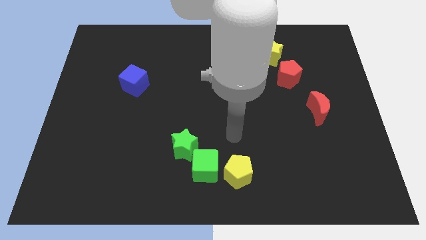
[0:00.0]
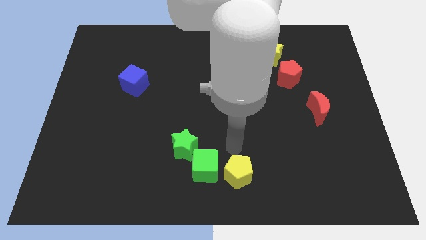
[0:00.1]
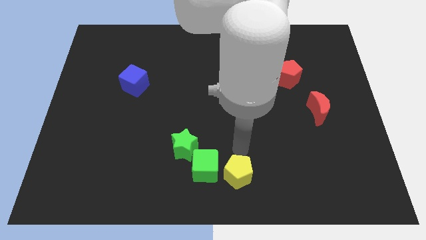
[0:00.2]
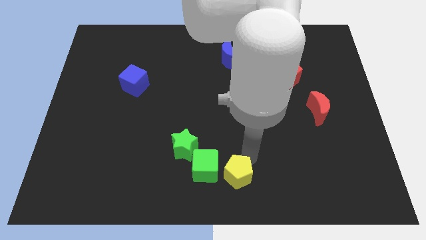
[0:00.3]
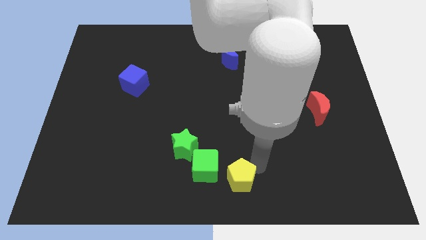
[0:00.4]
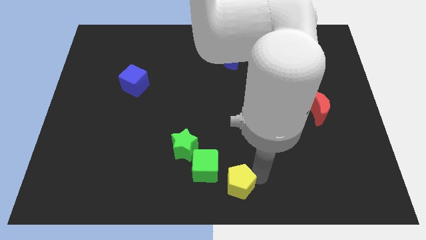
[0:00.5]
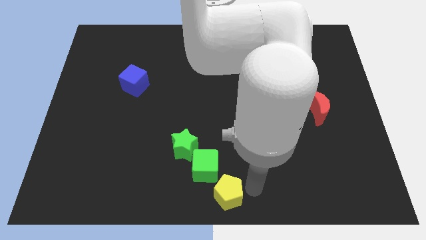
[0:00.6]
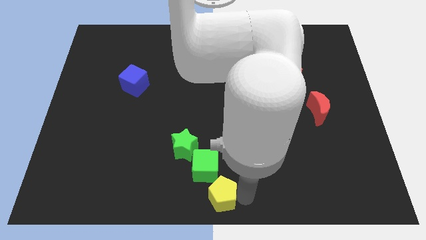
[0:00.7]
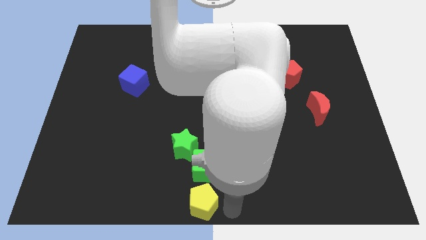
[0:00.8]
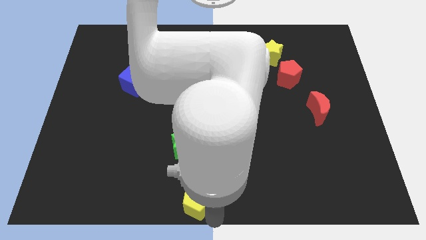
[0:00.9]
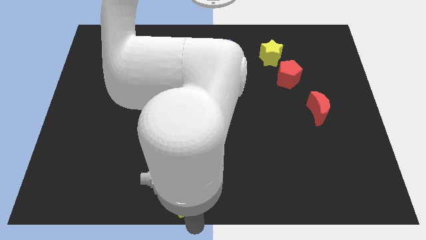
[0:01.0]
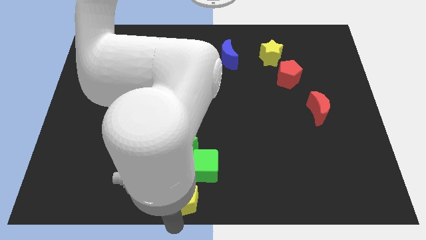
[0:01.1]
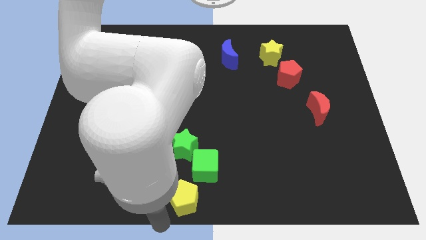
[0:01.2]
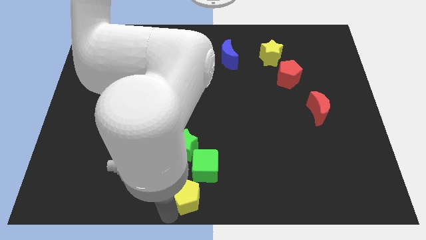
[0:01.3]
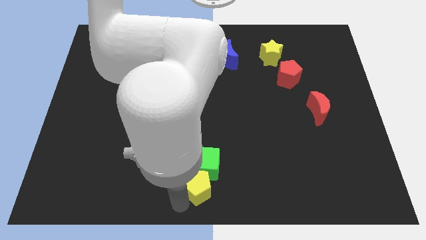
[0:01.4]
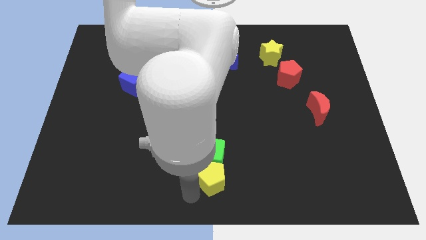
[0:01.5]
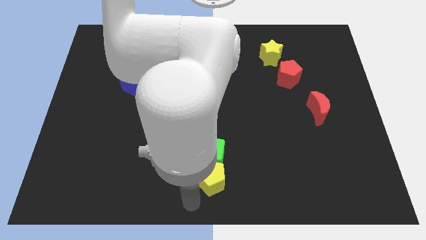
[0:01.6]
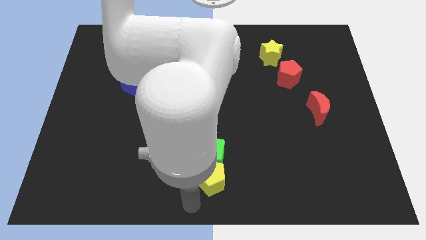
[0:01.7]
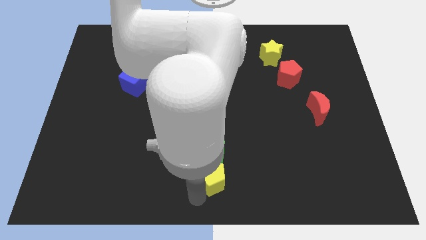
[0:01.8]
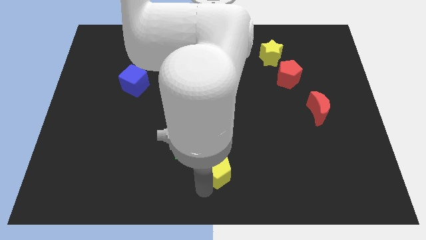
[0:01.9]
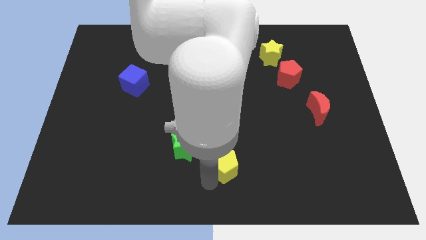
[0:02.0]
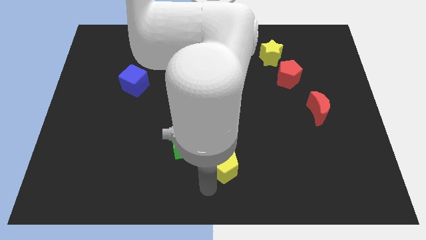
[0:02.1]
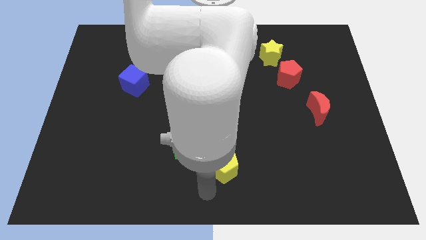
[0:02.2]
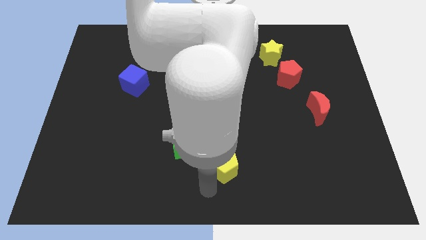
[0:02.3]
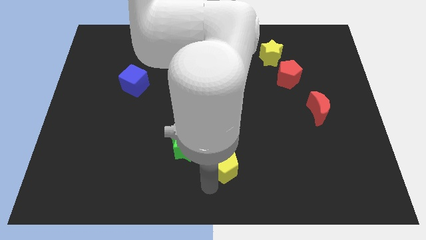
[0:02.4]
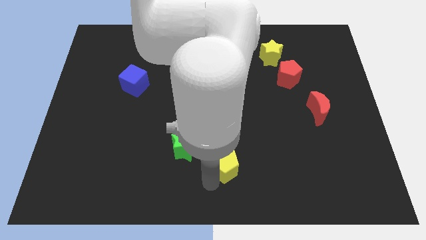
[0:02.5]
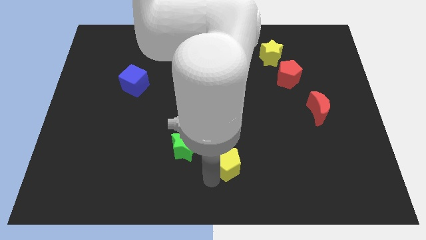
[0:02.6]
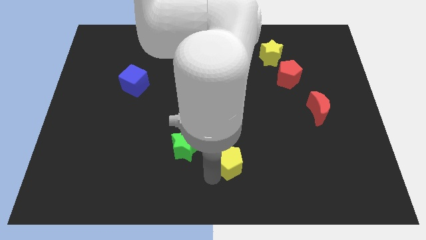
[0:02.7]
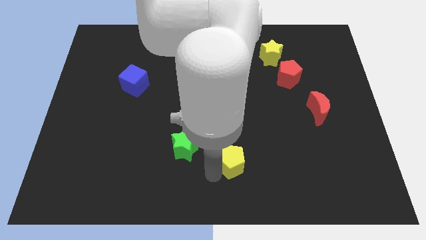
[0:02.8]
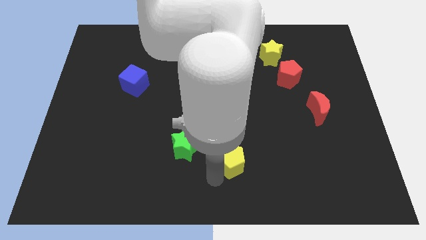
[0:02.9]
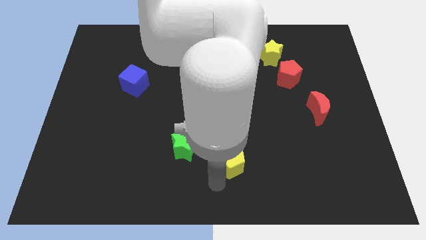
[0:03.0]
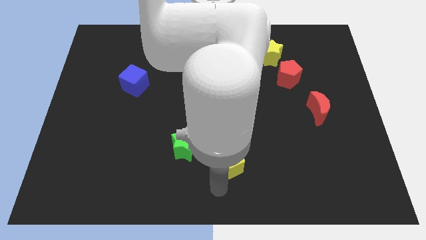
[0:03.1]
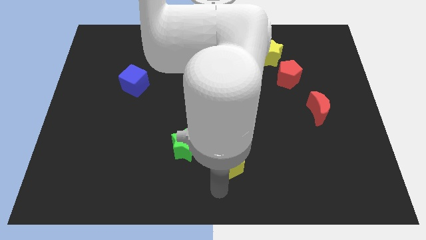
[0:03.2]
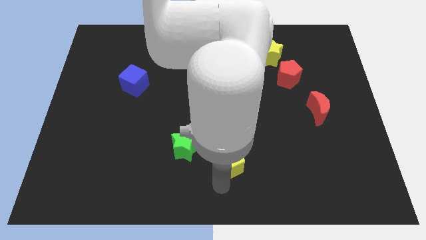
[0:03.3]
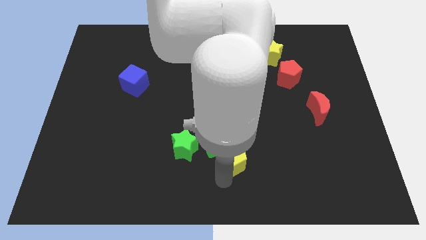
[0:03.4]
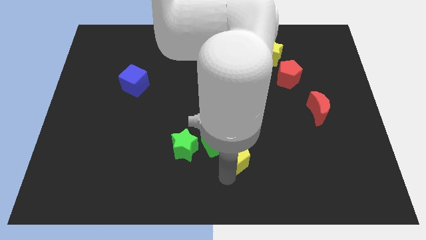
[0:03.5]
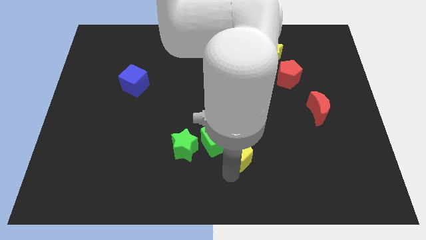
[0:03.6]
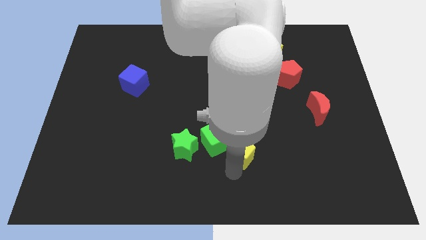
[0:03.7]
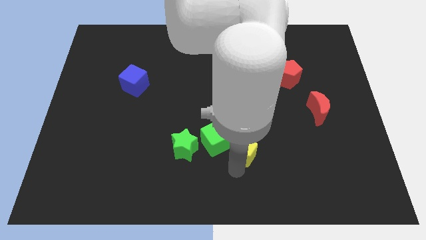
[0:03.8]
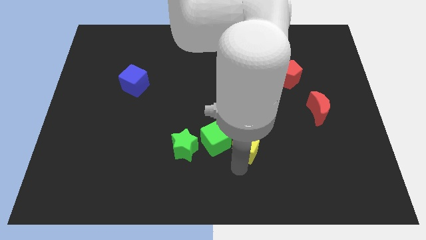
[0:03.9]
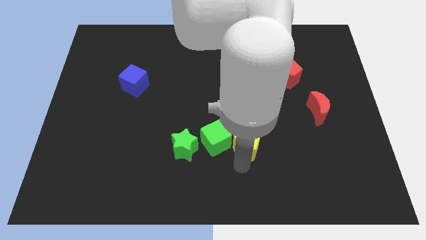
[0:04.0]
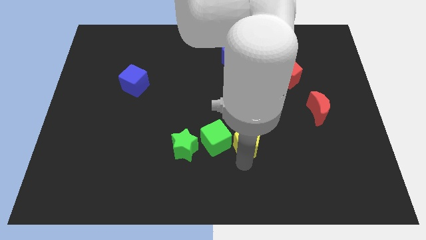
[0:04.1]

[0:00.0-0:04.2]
move the yellow pentagon up a little

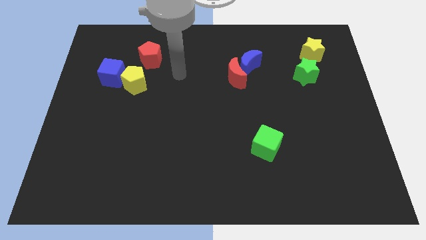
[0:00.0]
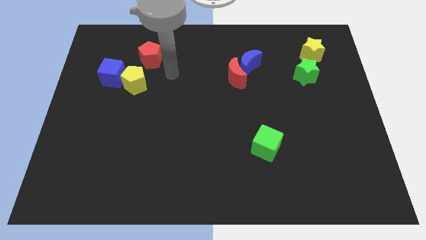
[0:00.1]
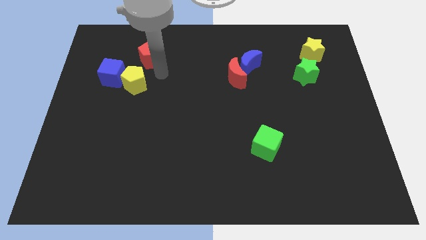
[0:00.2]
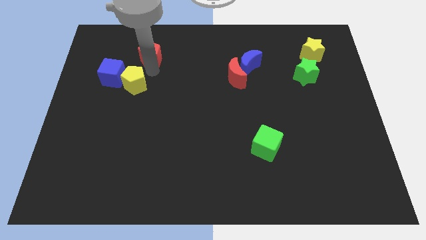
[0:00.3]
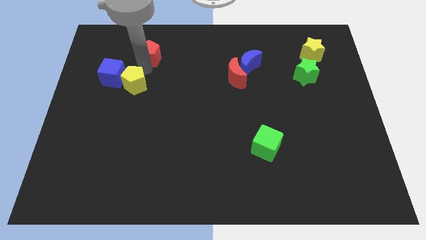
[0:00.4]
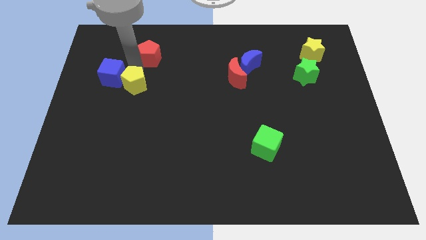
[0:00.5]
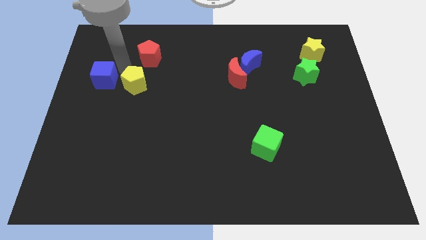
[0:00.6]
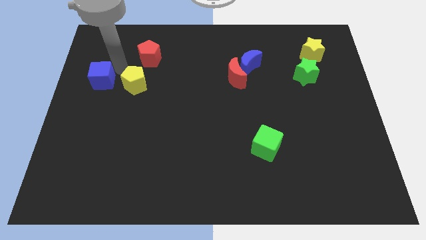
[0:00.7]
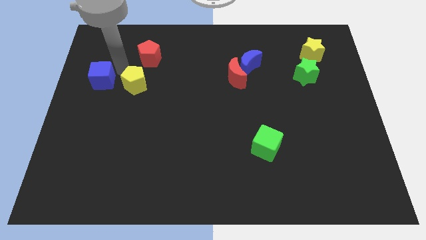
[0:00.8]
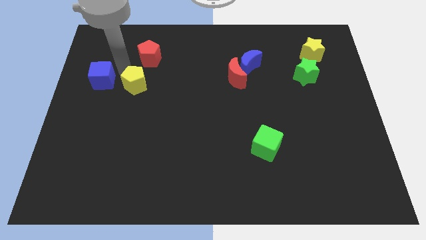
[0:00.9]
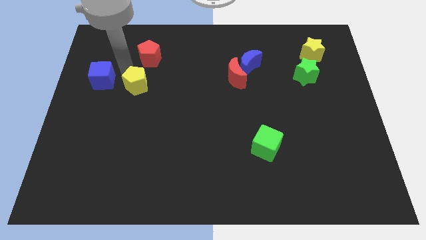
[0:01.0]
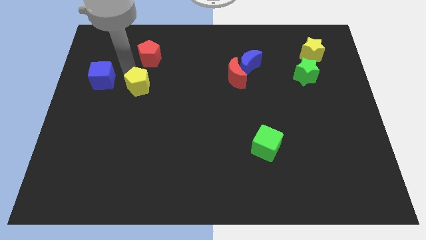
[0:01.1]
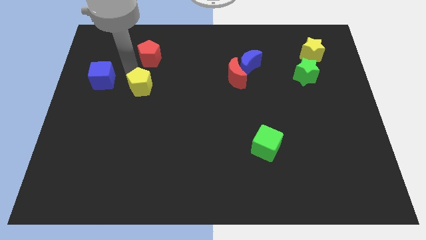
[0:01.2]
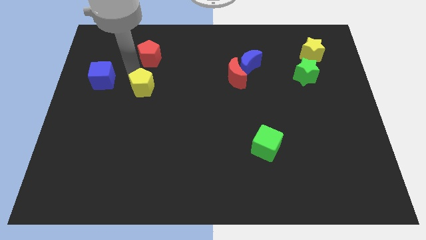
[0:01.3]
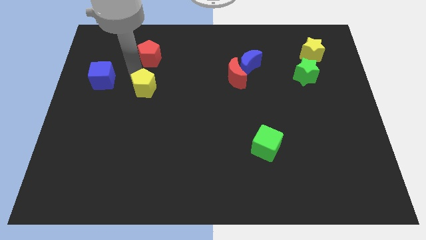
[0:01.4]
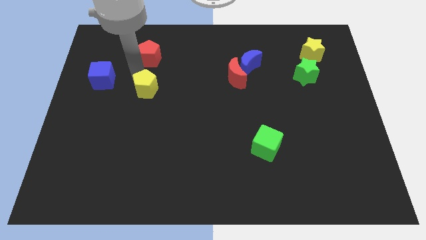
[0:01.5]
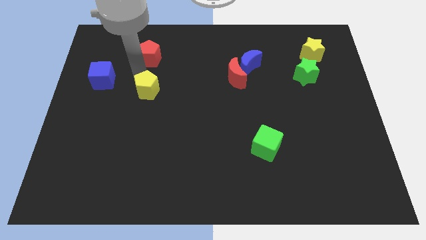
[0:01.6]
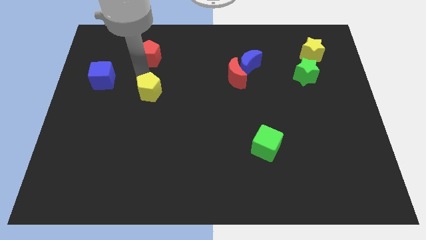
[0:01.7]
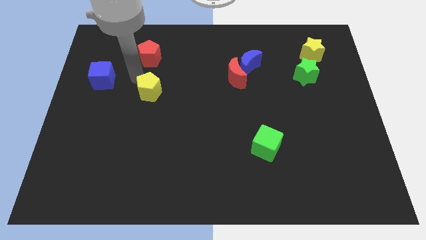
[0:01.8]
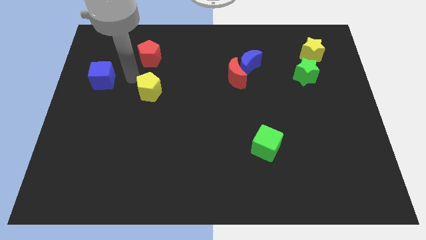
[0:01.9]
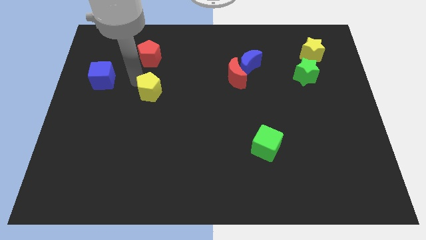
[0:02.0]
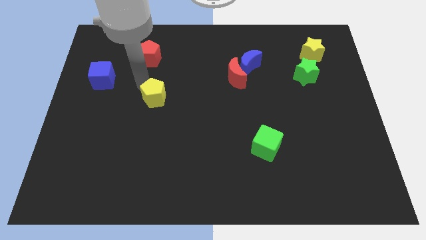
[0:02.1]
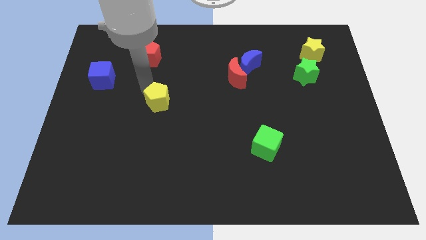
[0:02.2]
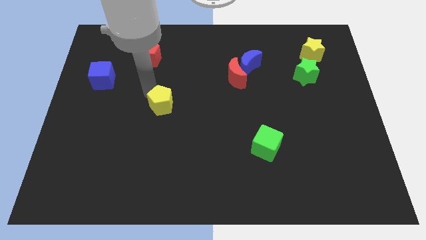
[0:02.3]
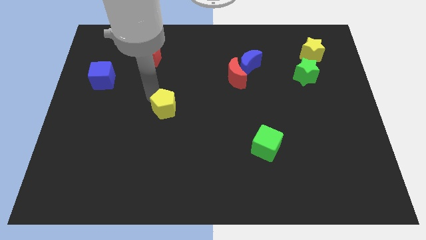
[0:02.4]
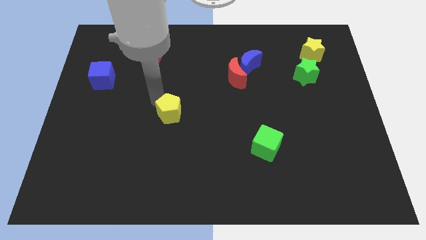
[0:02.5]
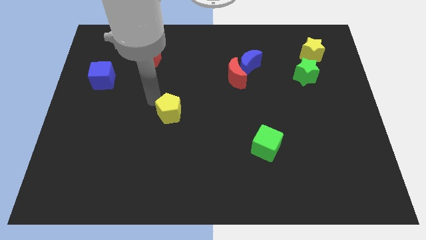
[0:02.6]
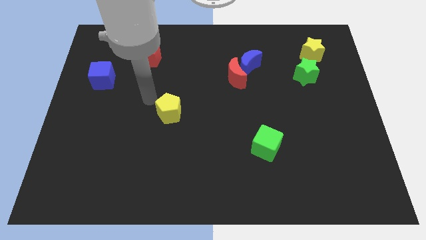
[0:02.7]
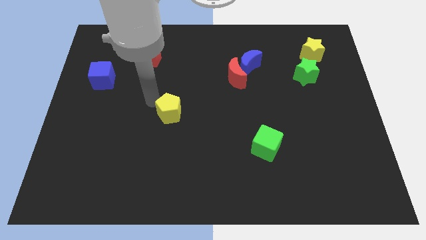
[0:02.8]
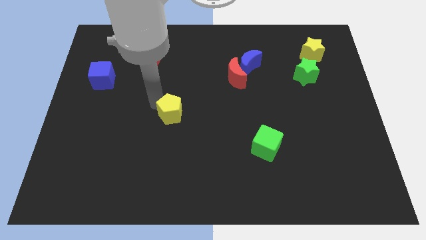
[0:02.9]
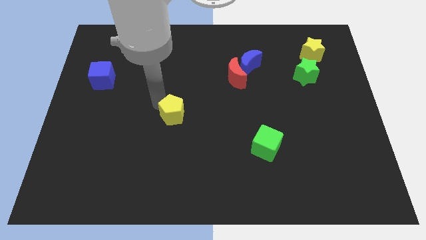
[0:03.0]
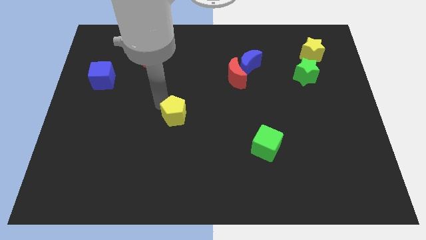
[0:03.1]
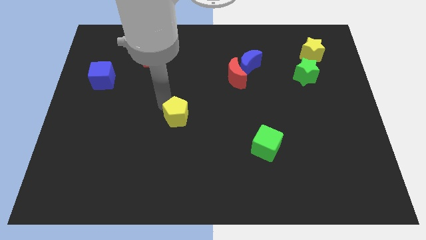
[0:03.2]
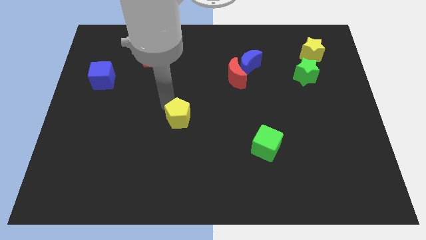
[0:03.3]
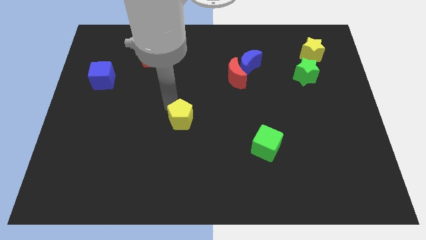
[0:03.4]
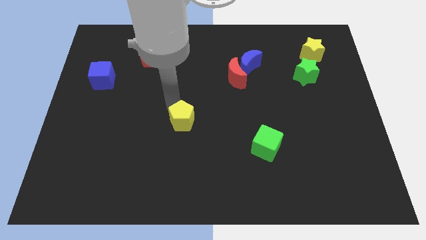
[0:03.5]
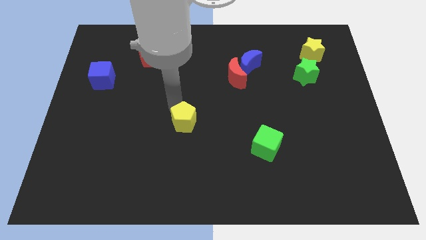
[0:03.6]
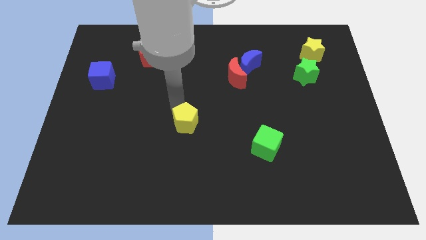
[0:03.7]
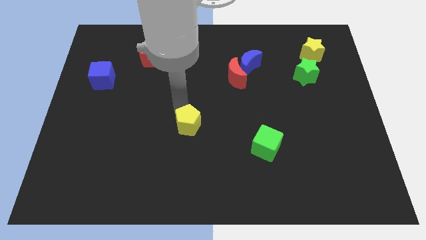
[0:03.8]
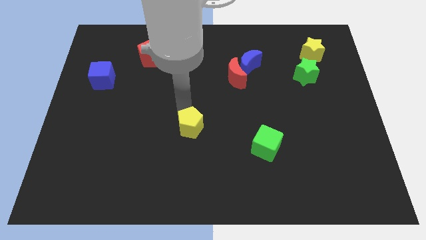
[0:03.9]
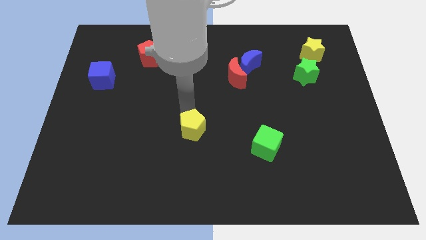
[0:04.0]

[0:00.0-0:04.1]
move the yellow pentagon downwards and right
